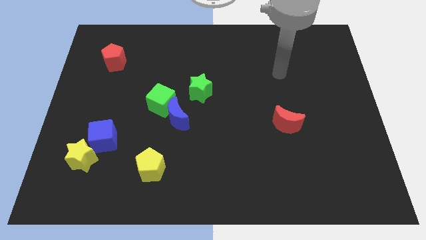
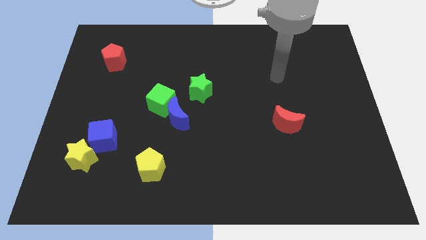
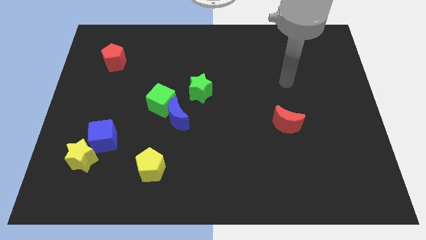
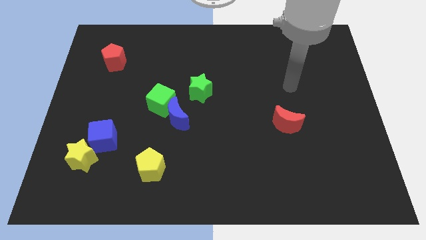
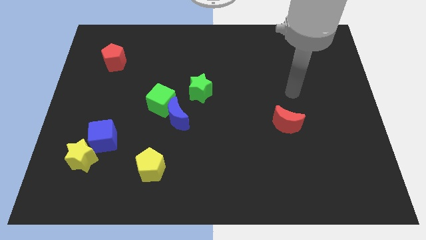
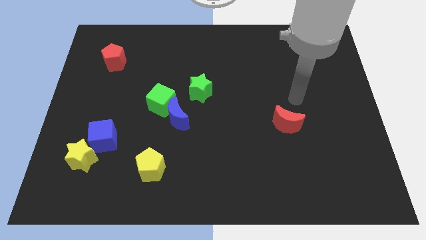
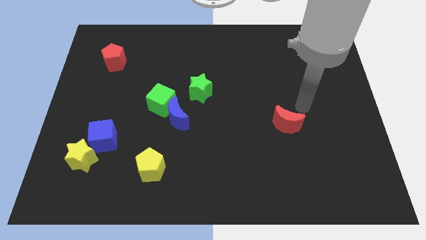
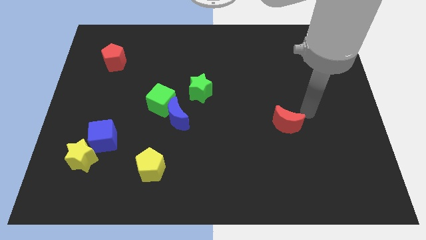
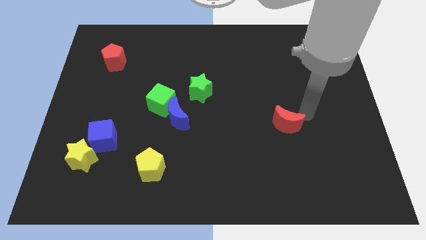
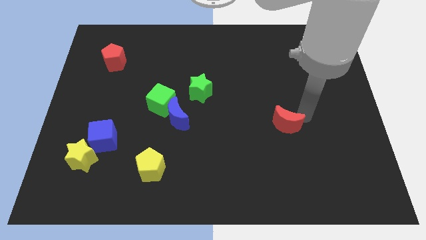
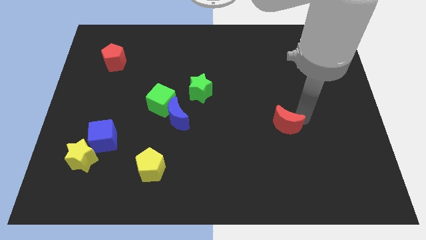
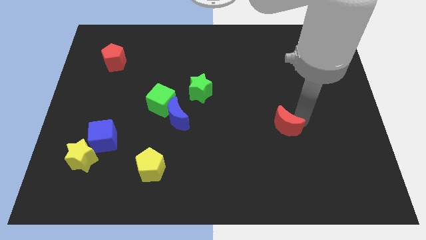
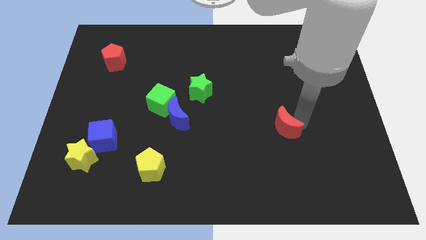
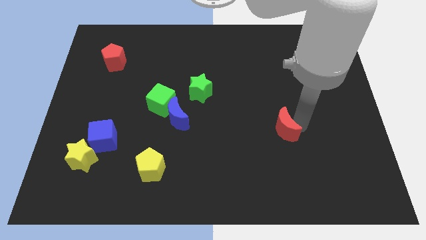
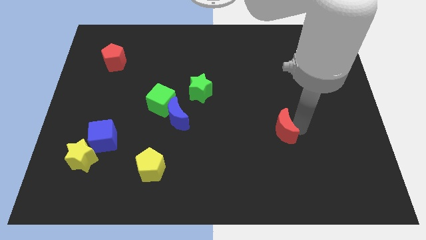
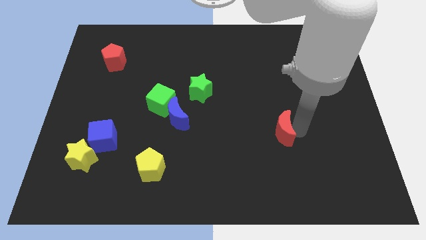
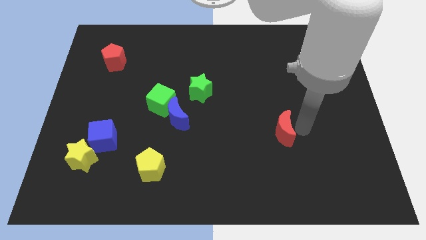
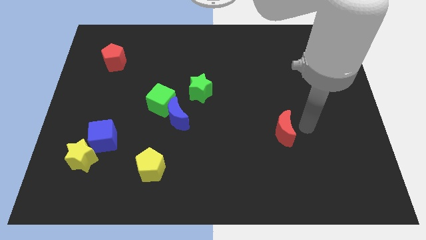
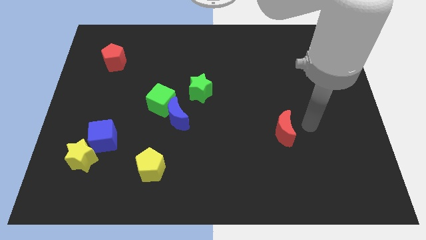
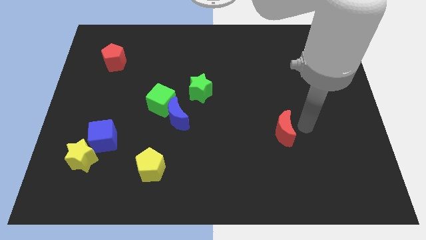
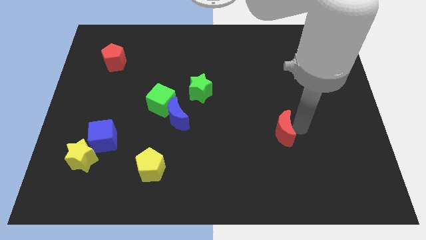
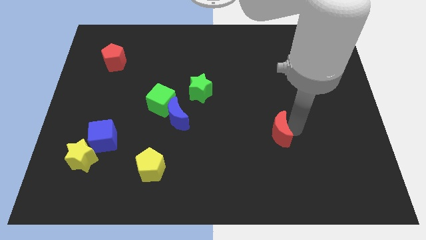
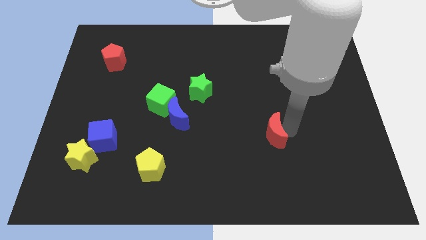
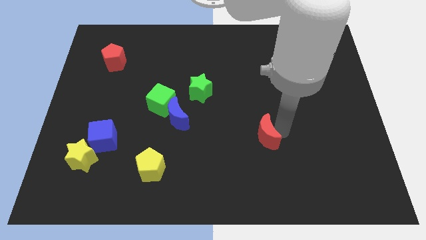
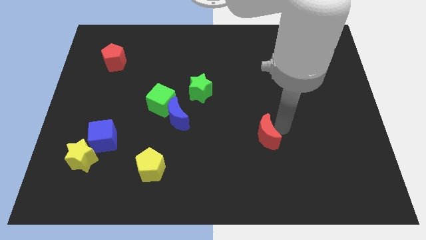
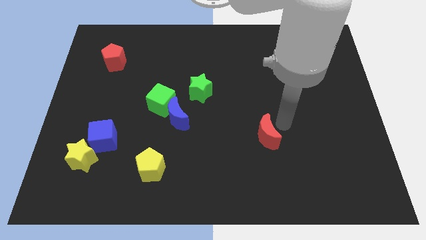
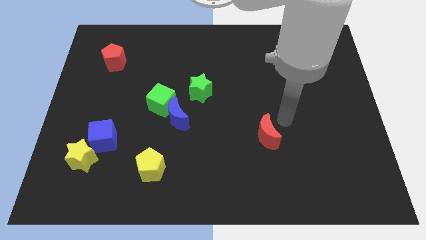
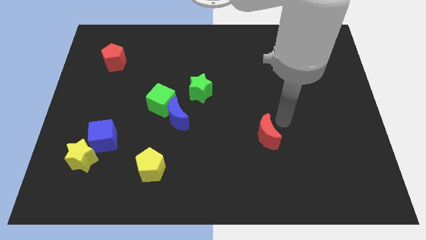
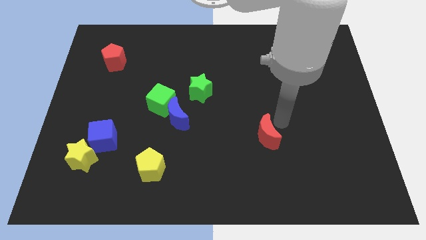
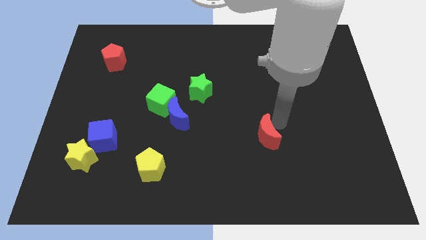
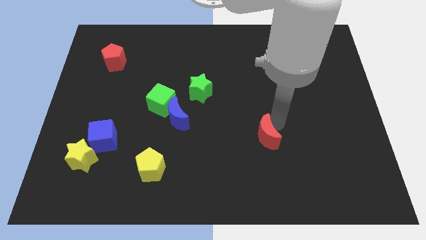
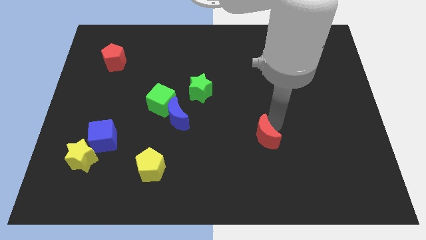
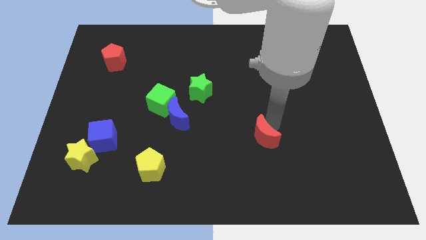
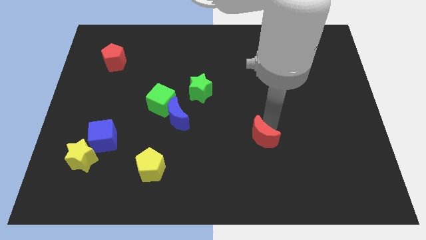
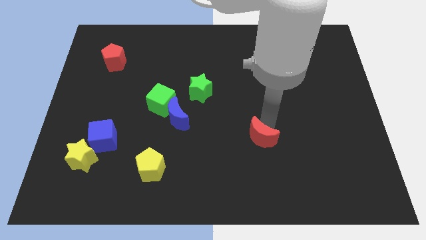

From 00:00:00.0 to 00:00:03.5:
slightly slide the red moon down and then left

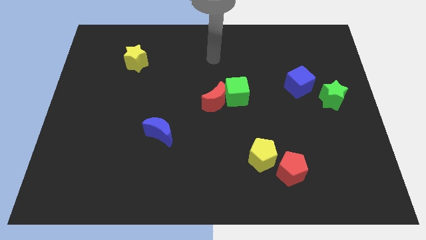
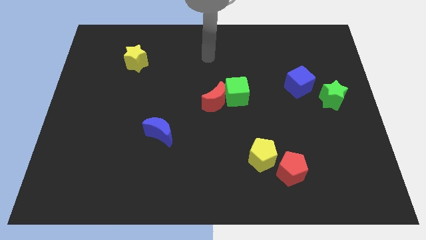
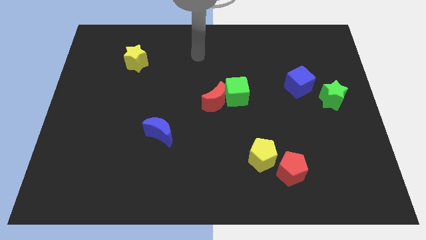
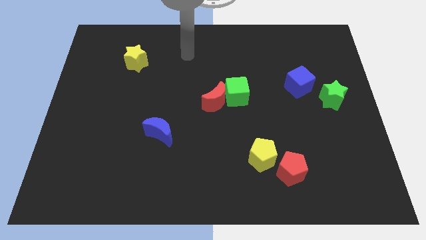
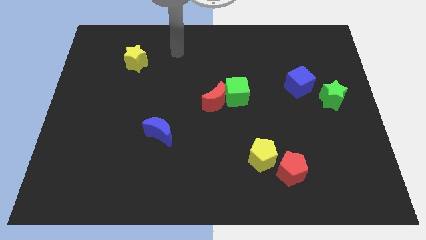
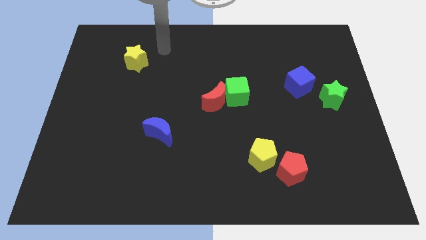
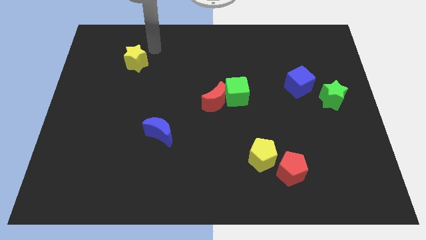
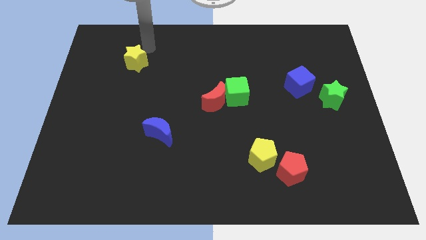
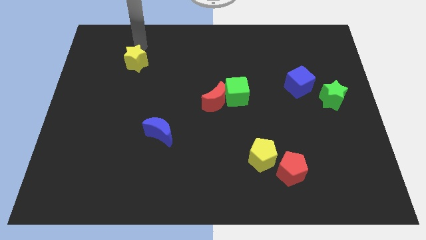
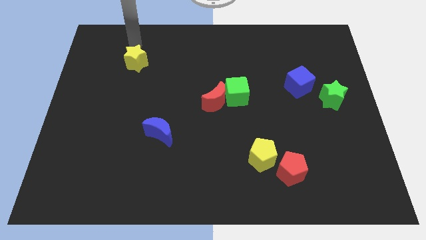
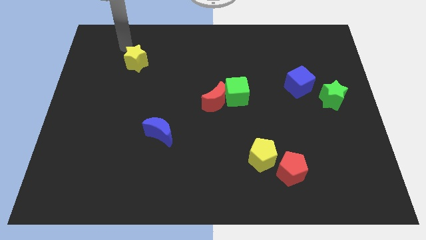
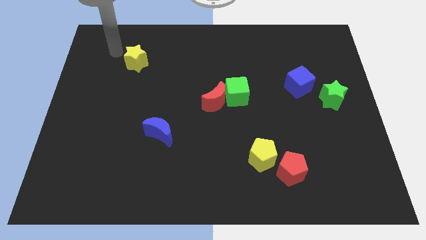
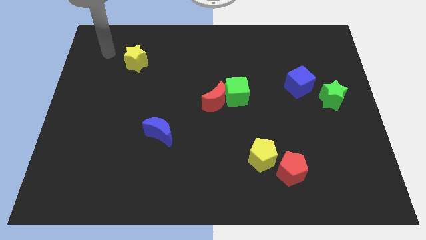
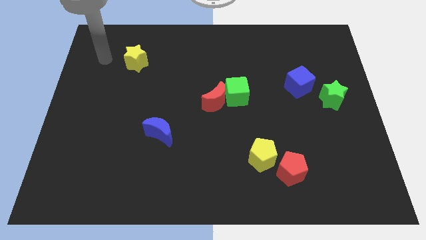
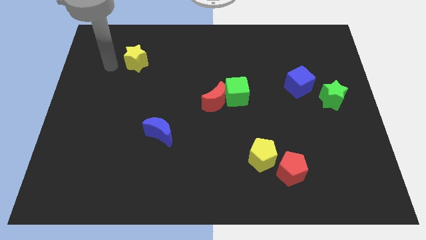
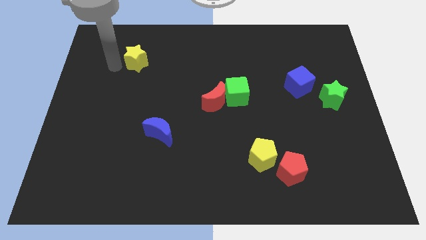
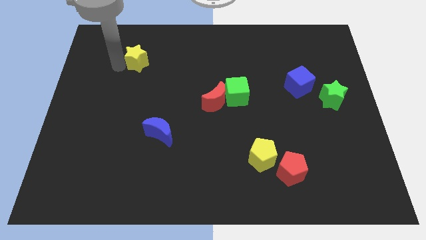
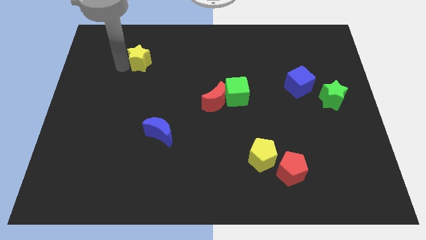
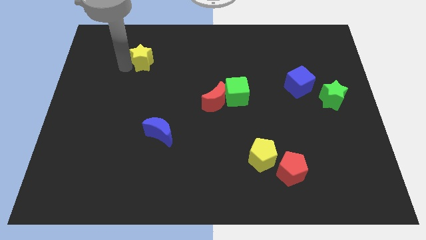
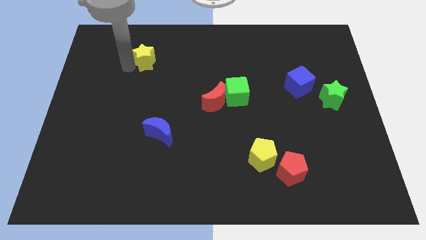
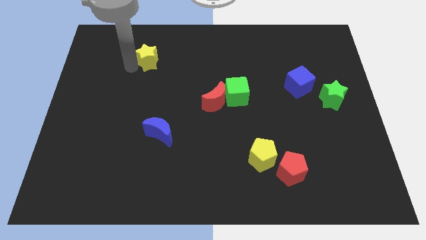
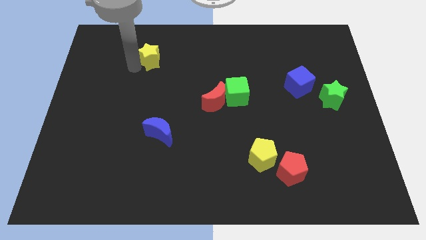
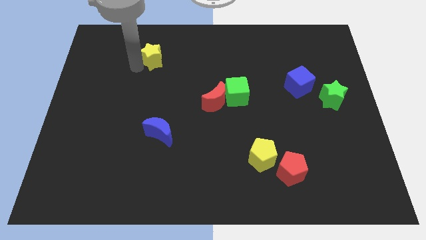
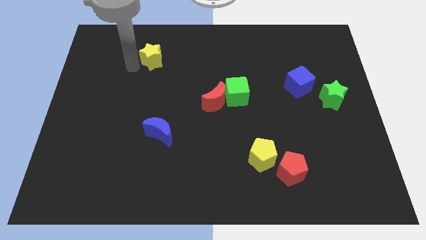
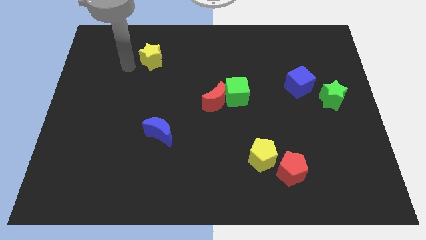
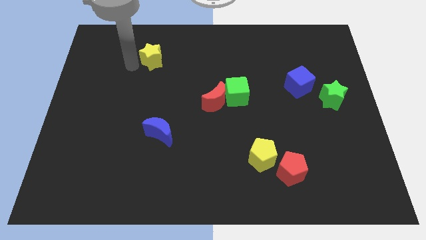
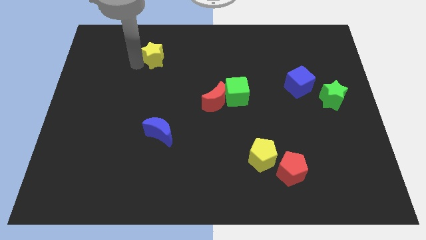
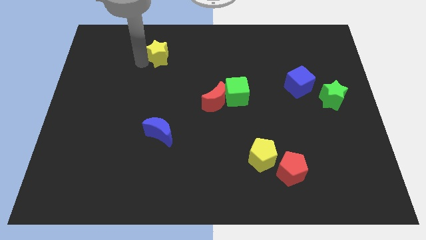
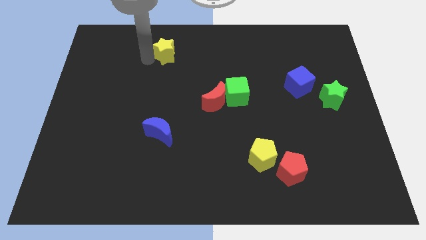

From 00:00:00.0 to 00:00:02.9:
slide the yellow star right a bit

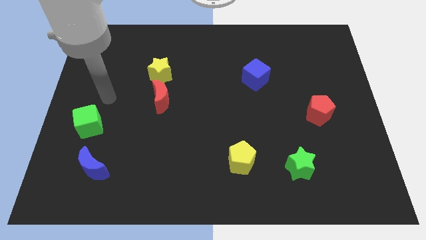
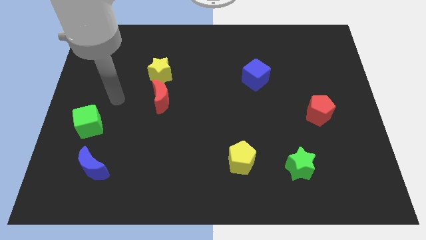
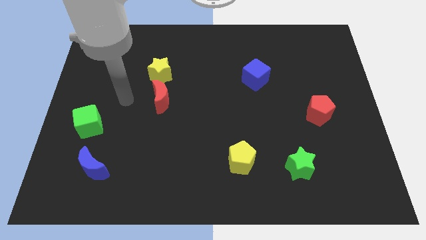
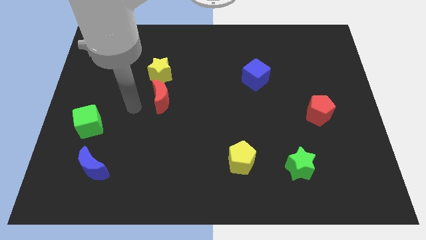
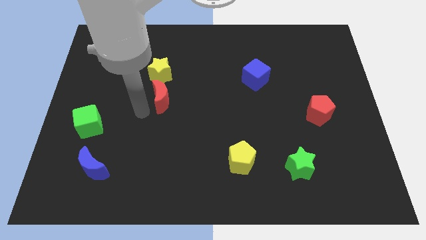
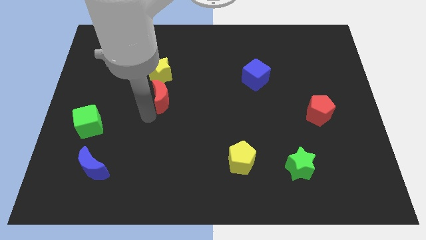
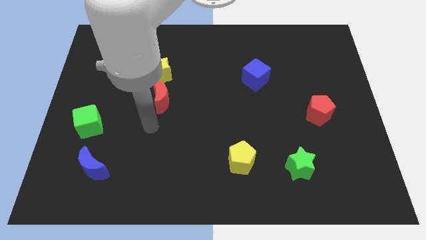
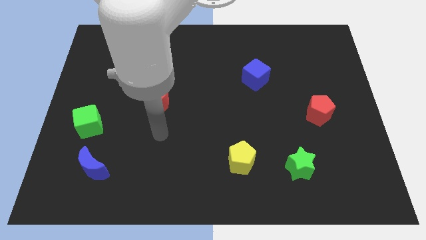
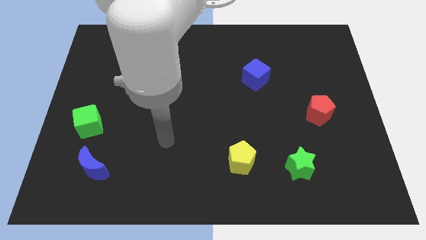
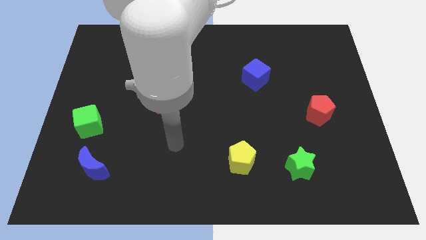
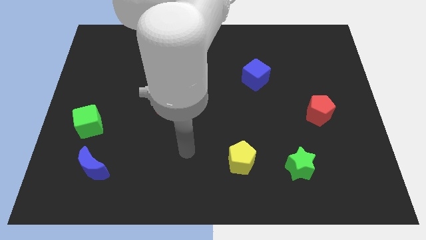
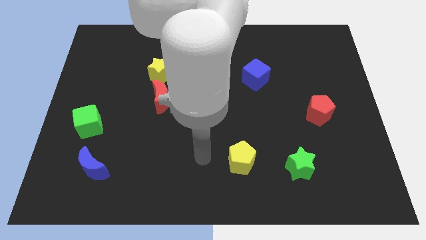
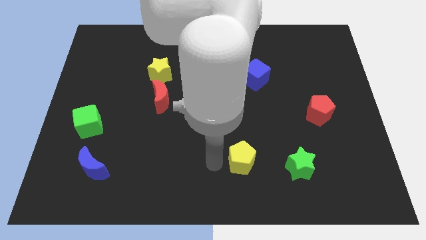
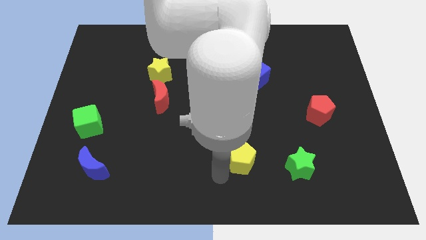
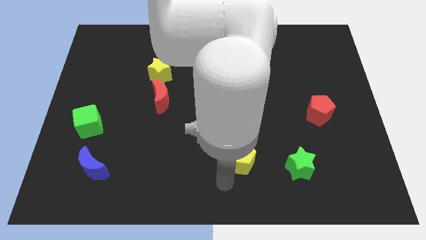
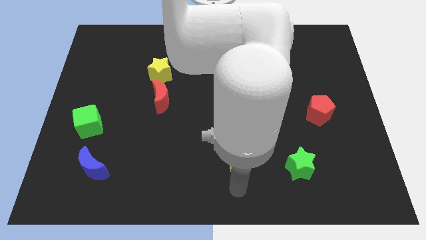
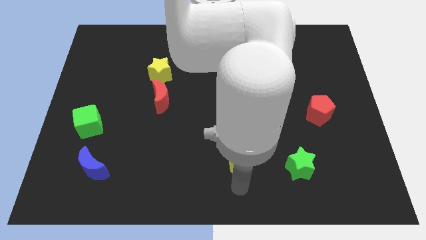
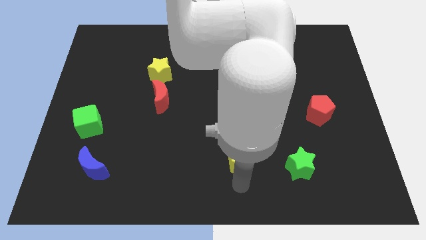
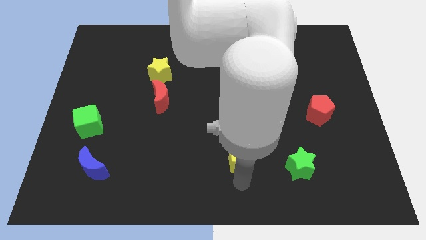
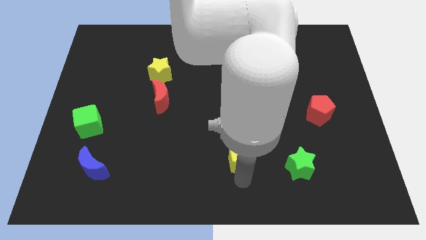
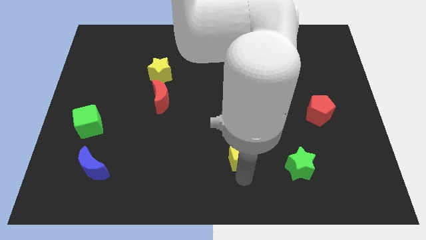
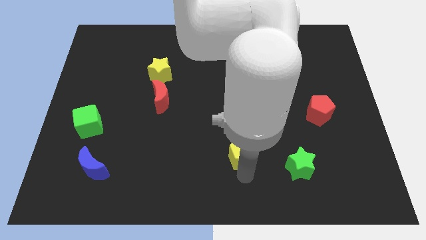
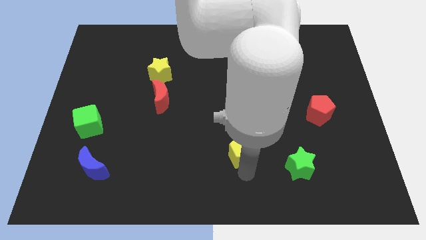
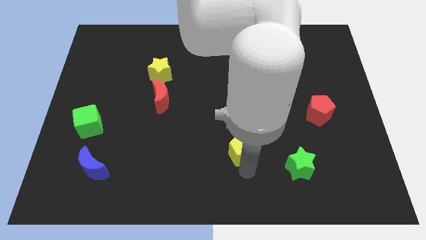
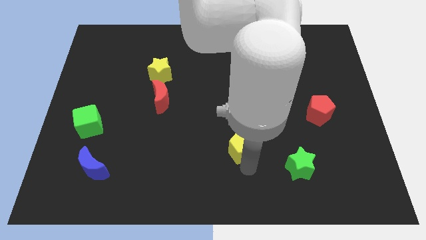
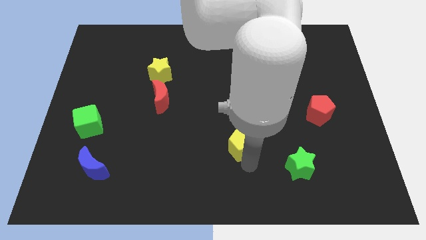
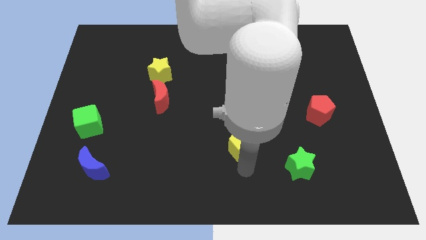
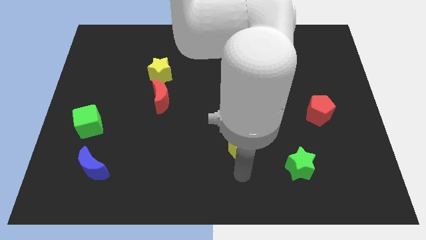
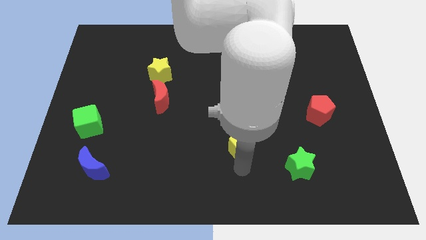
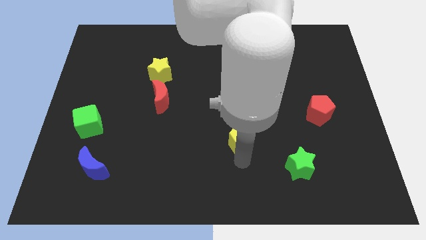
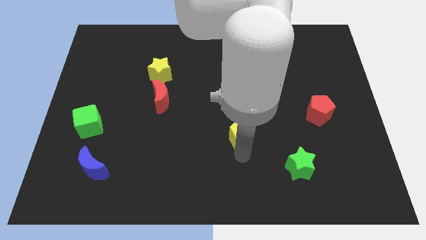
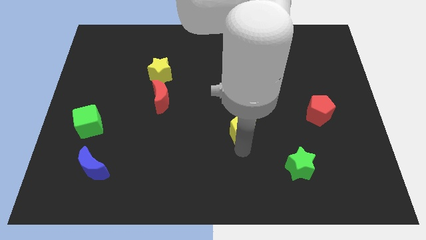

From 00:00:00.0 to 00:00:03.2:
slightly slide the yellow pentagon upwards
